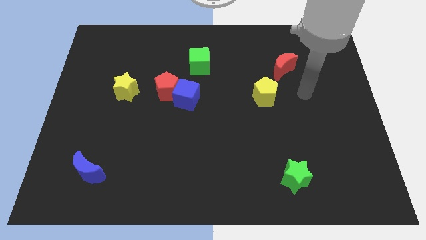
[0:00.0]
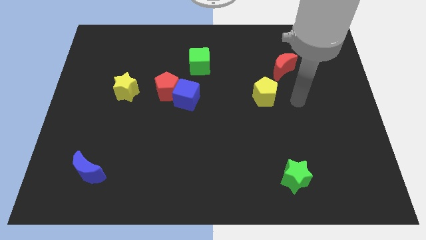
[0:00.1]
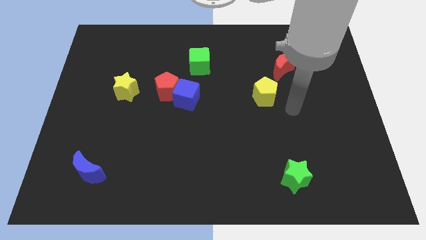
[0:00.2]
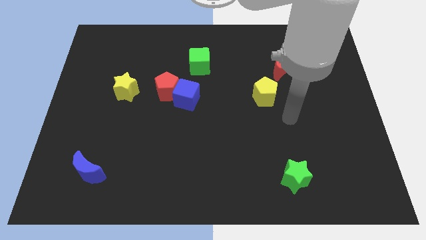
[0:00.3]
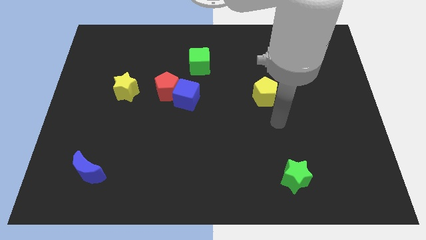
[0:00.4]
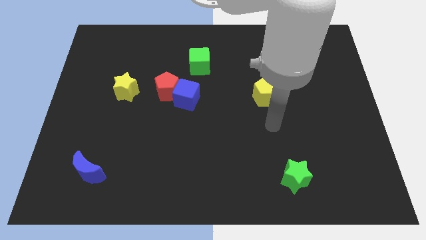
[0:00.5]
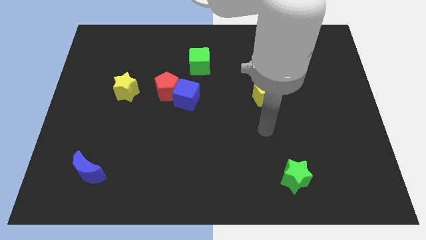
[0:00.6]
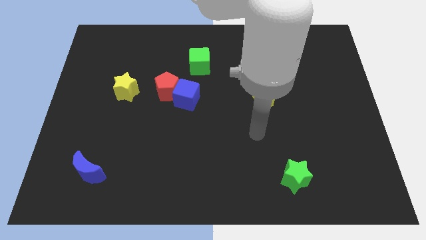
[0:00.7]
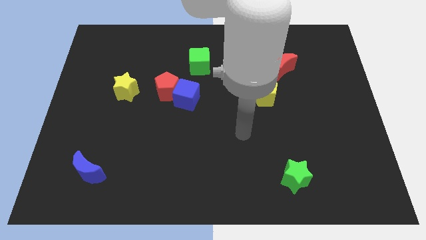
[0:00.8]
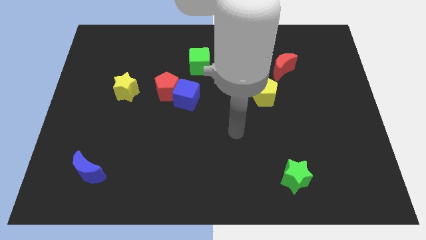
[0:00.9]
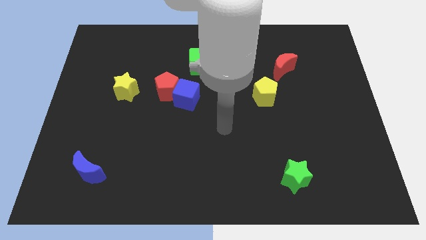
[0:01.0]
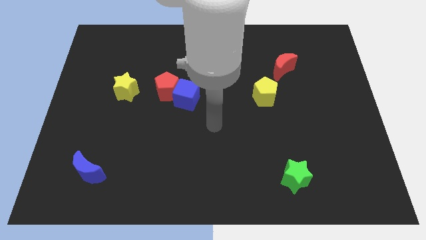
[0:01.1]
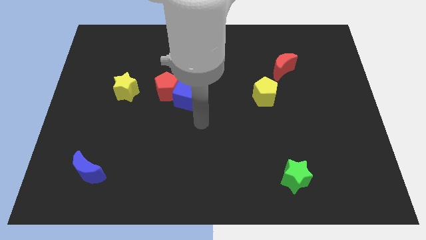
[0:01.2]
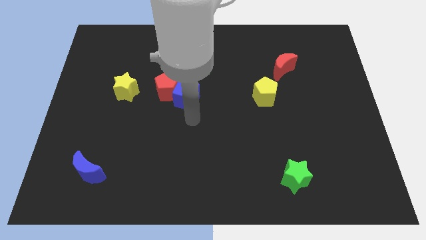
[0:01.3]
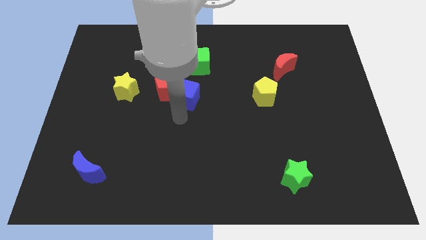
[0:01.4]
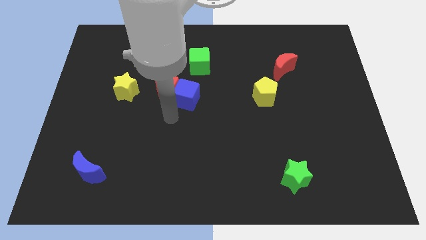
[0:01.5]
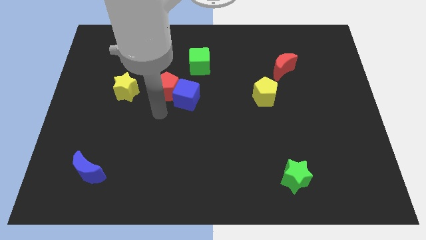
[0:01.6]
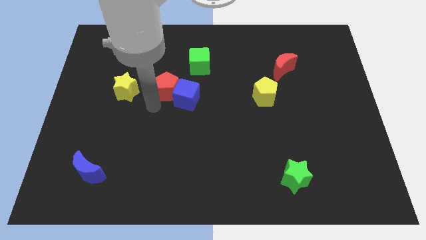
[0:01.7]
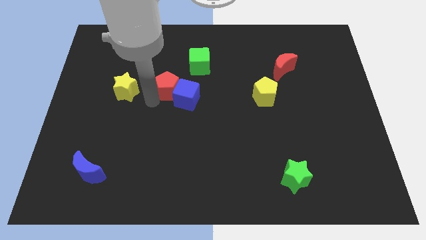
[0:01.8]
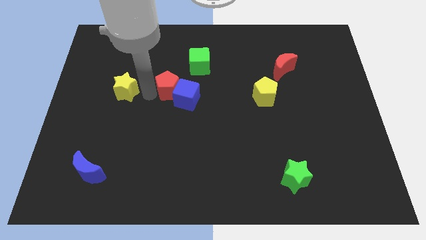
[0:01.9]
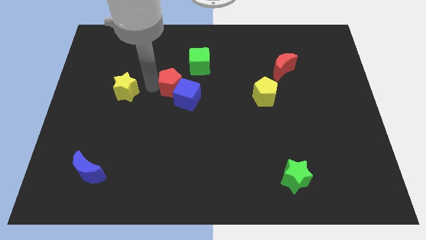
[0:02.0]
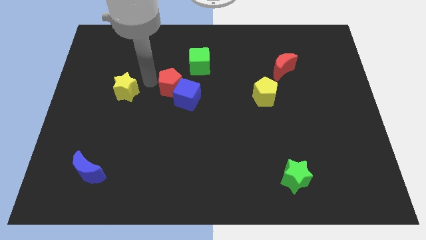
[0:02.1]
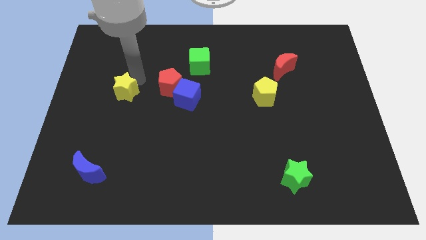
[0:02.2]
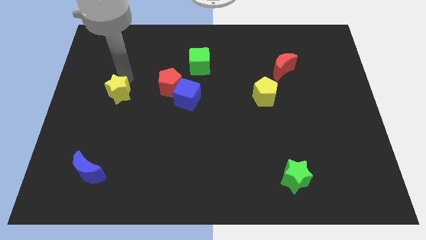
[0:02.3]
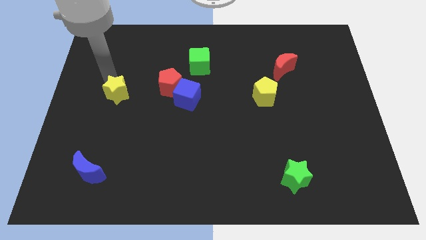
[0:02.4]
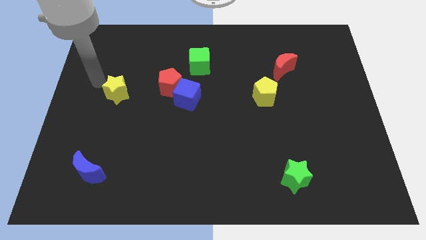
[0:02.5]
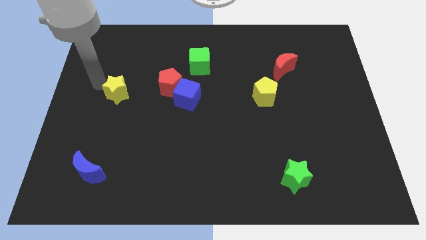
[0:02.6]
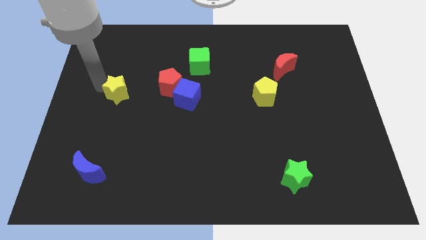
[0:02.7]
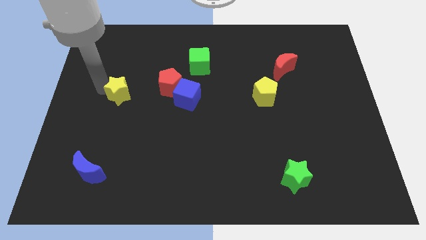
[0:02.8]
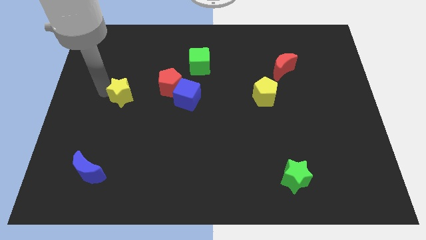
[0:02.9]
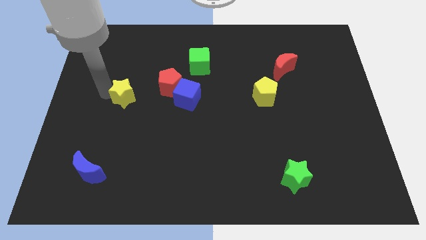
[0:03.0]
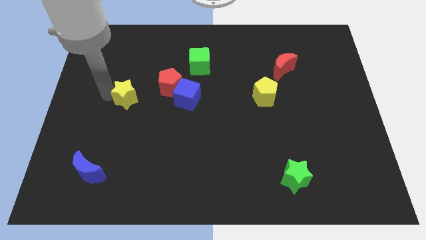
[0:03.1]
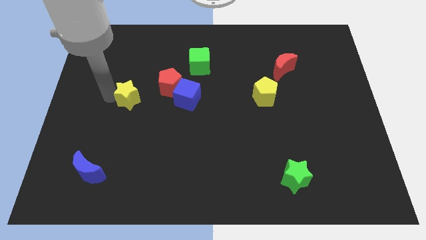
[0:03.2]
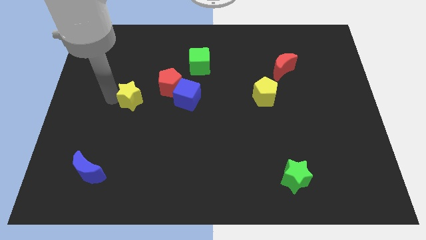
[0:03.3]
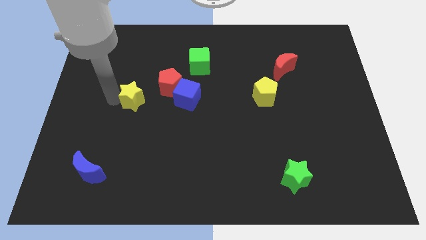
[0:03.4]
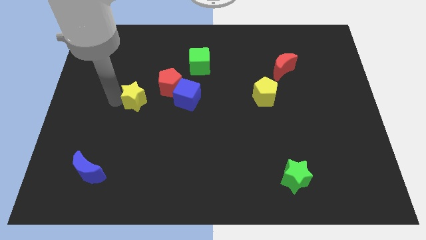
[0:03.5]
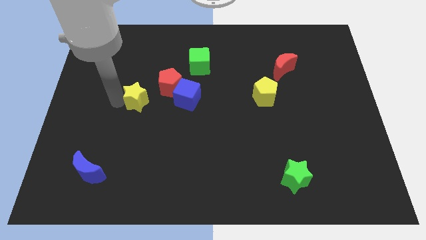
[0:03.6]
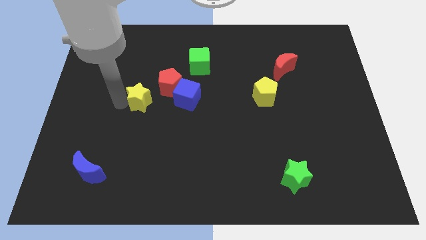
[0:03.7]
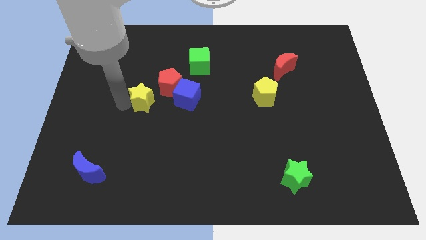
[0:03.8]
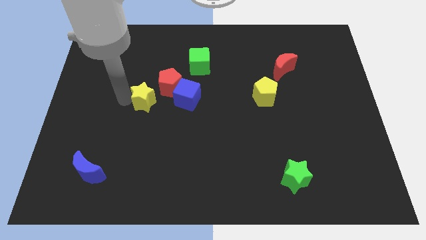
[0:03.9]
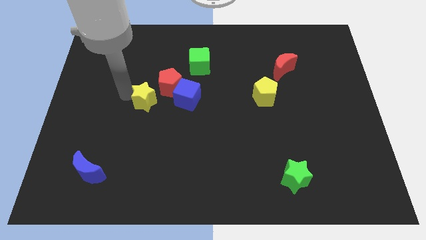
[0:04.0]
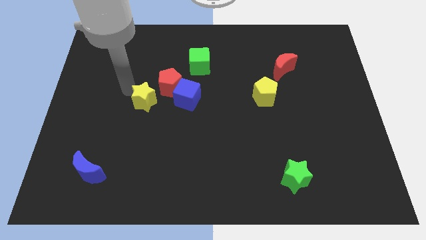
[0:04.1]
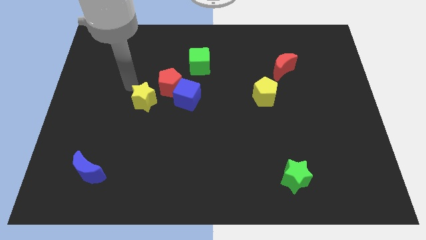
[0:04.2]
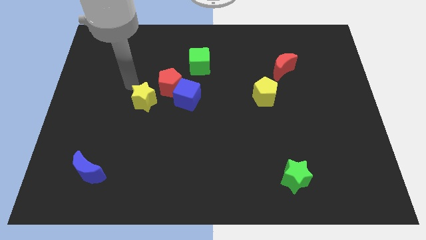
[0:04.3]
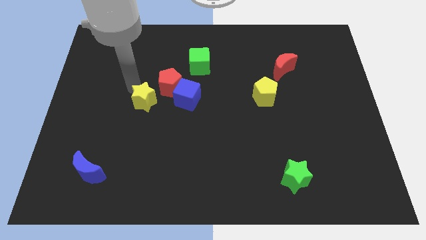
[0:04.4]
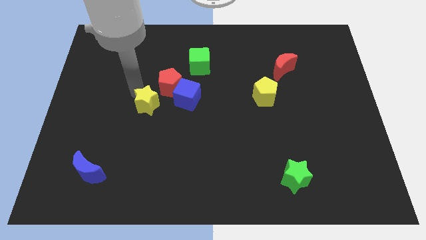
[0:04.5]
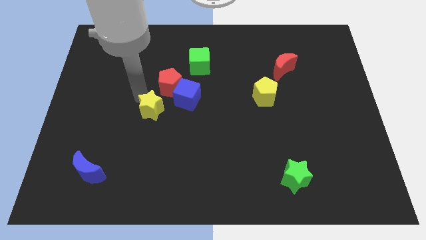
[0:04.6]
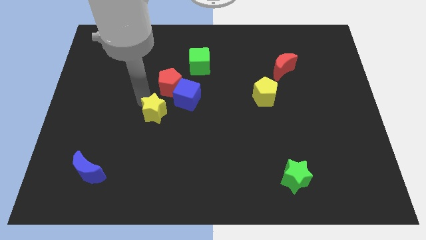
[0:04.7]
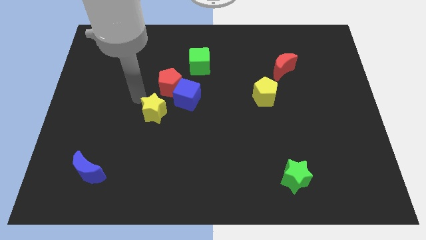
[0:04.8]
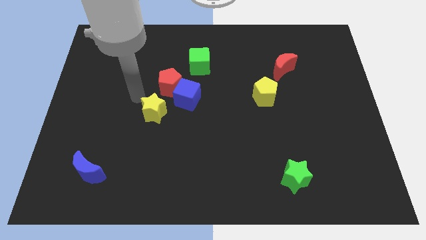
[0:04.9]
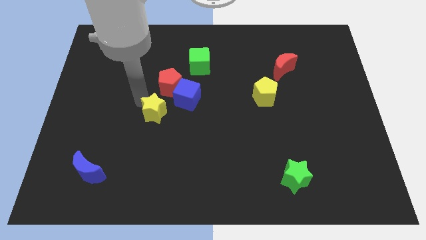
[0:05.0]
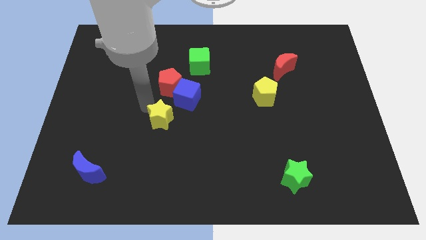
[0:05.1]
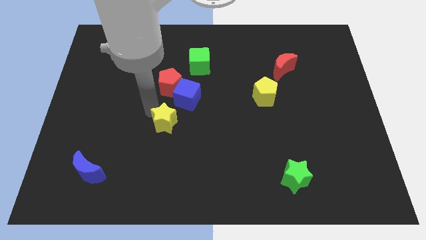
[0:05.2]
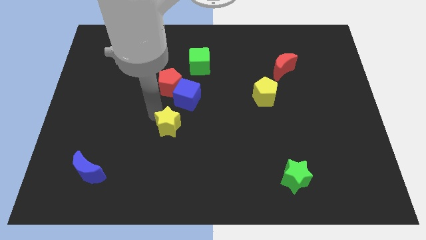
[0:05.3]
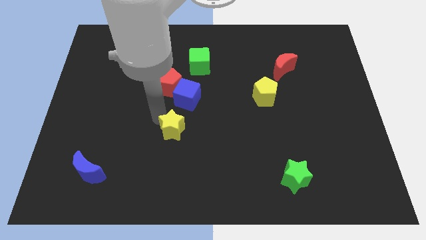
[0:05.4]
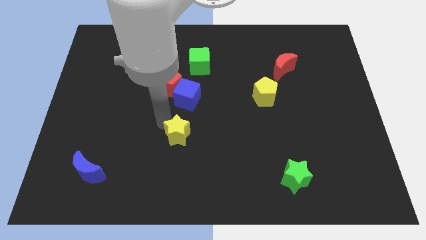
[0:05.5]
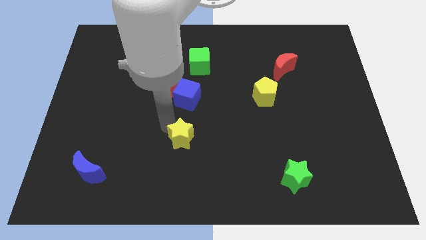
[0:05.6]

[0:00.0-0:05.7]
move the yellow star diagonally downwards and to the right

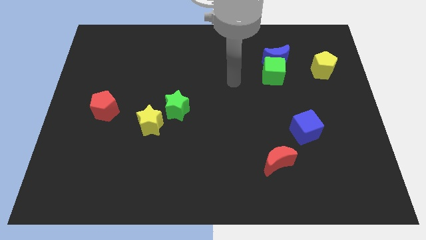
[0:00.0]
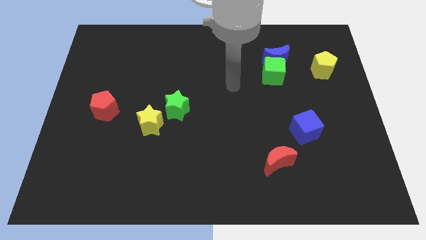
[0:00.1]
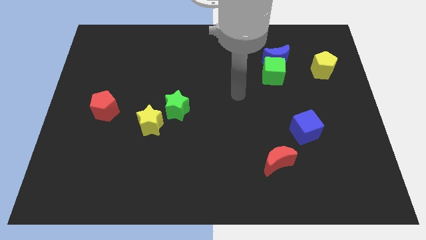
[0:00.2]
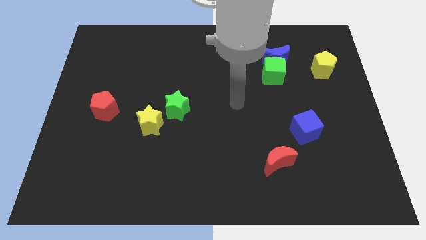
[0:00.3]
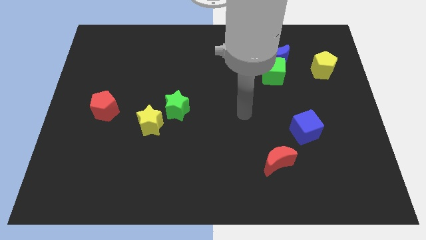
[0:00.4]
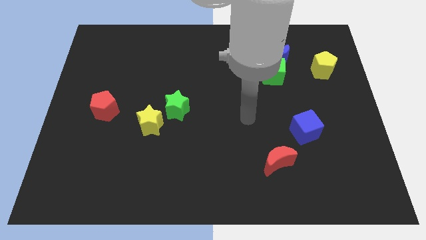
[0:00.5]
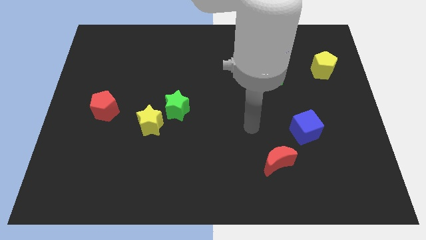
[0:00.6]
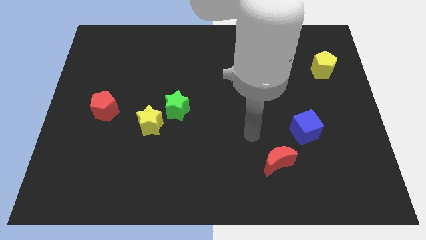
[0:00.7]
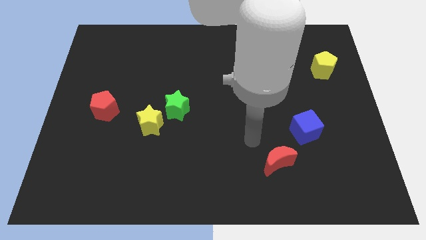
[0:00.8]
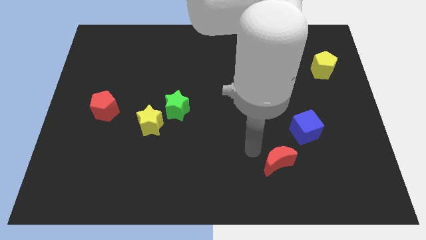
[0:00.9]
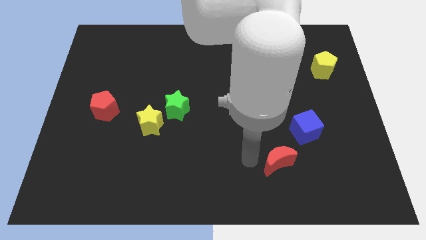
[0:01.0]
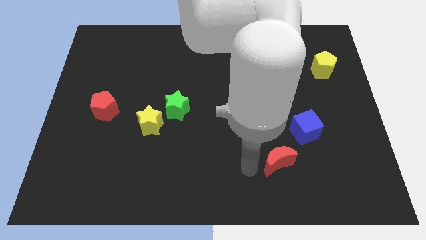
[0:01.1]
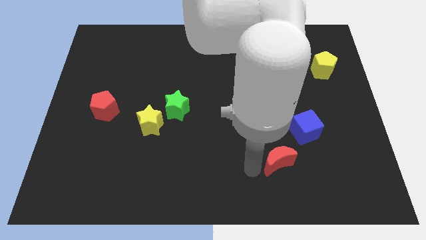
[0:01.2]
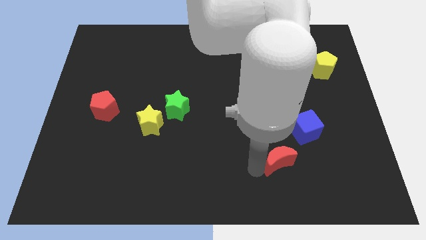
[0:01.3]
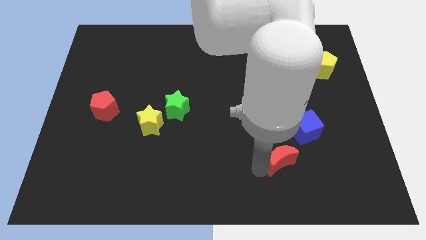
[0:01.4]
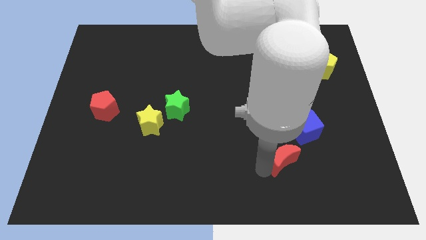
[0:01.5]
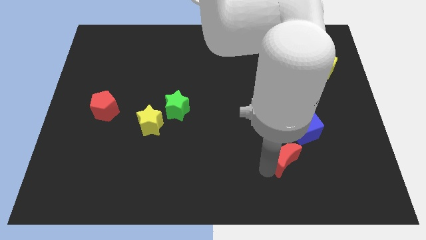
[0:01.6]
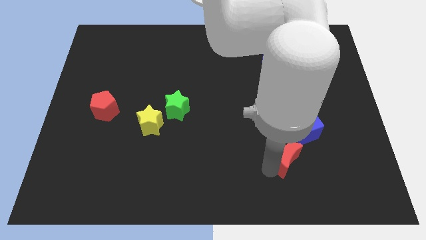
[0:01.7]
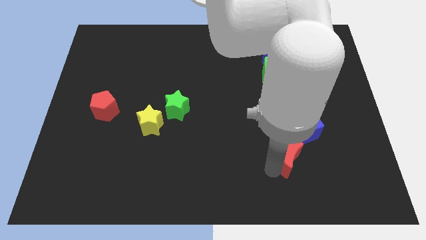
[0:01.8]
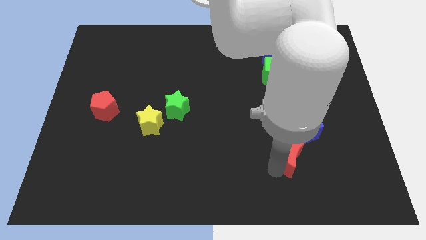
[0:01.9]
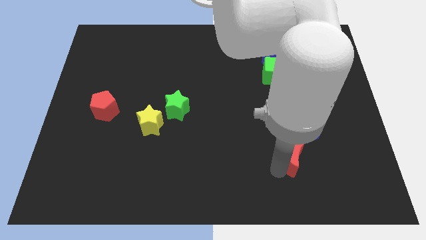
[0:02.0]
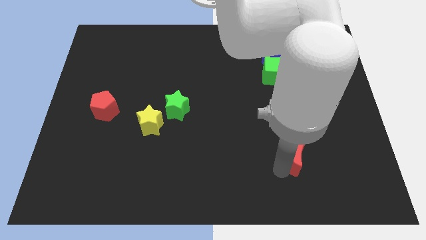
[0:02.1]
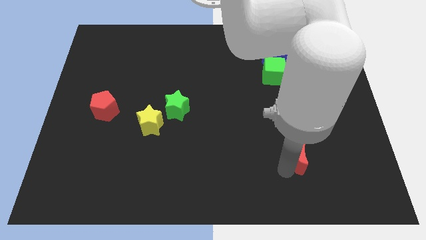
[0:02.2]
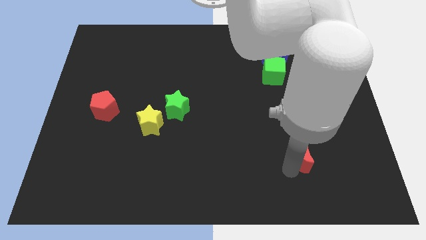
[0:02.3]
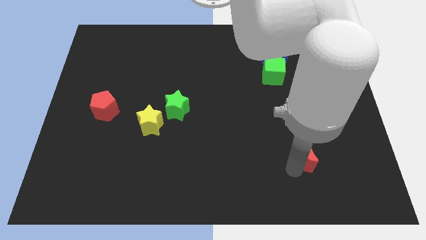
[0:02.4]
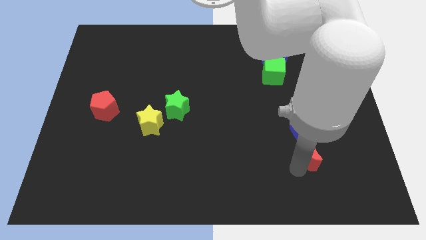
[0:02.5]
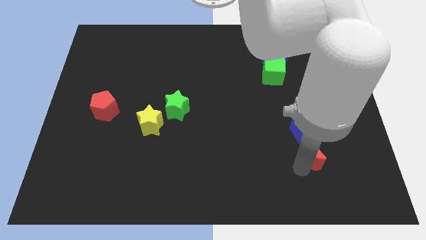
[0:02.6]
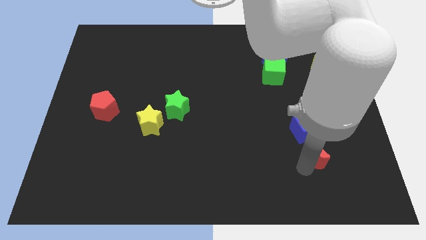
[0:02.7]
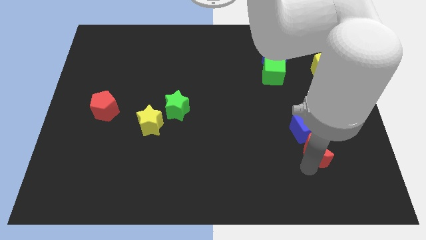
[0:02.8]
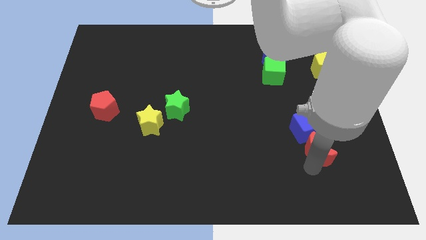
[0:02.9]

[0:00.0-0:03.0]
slide the red moon up and then right a little bit
